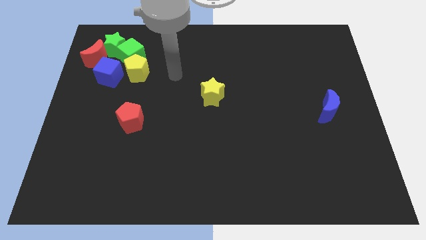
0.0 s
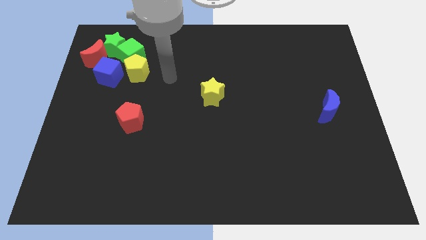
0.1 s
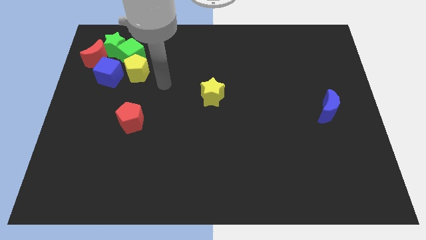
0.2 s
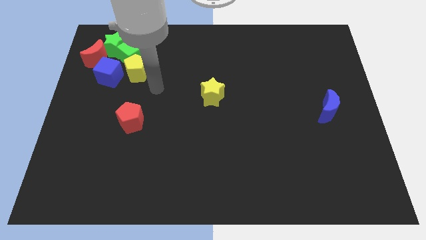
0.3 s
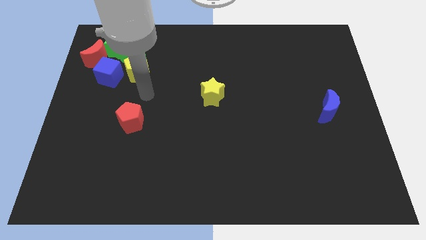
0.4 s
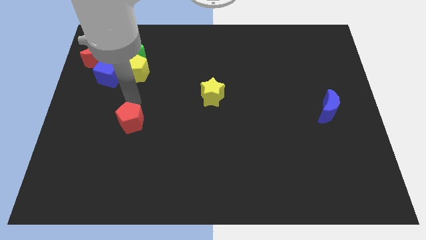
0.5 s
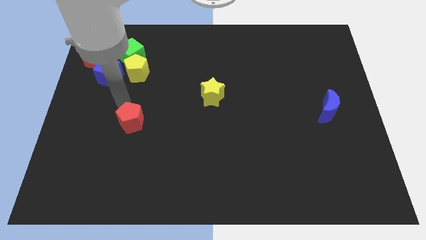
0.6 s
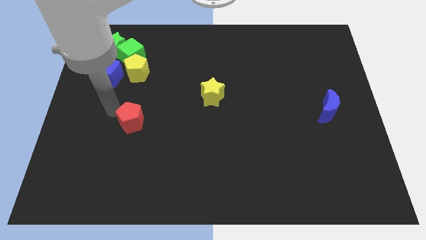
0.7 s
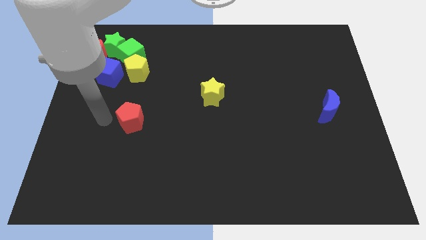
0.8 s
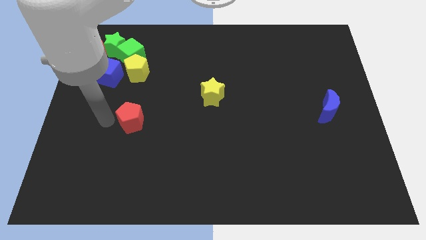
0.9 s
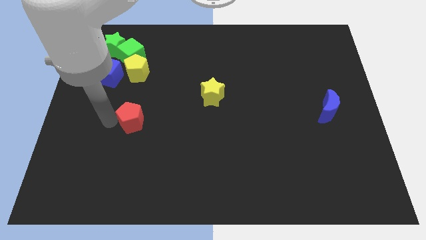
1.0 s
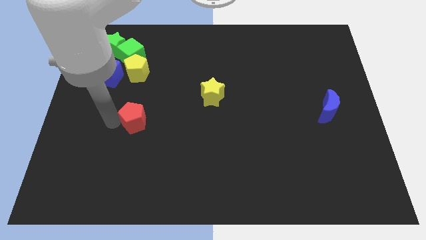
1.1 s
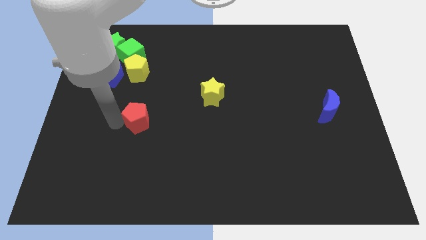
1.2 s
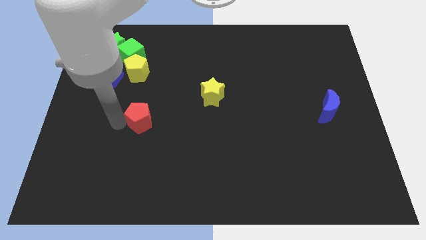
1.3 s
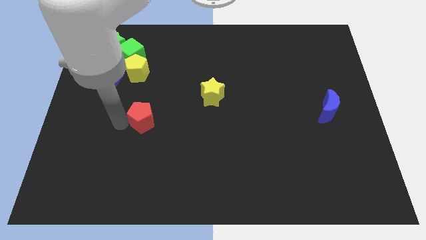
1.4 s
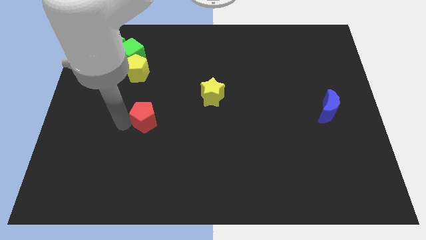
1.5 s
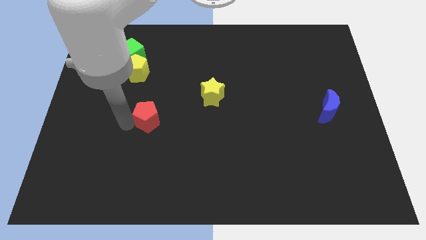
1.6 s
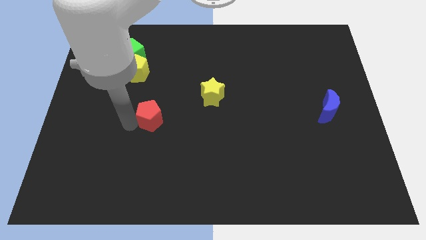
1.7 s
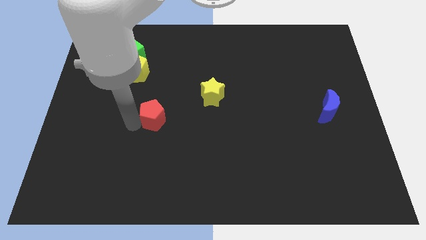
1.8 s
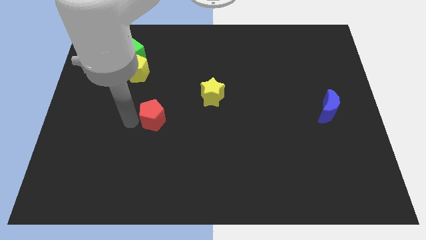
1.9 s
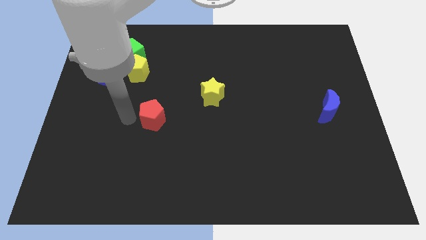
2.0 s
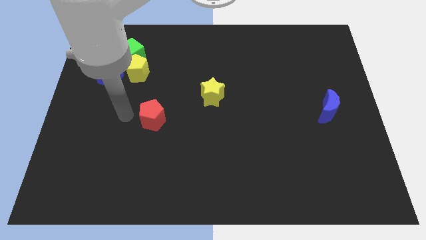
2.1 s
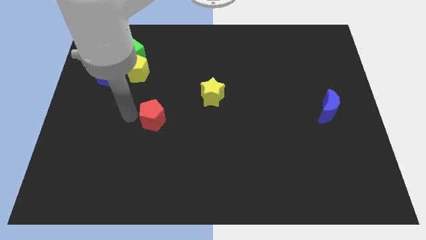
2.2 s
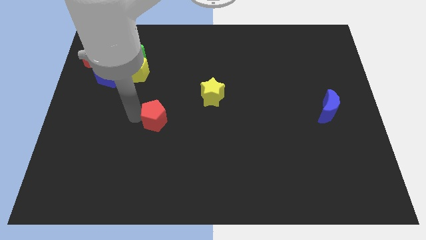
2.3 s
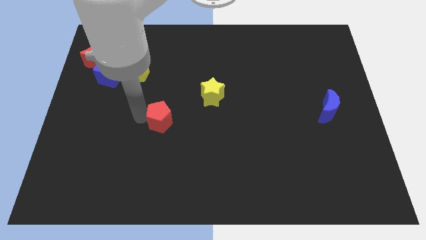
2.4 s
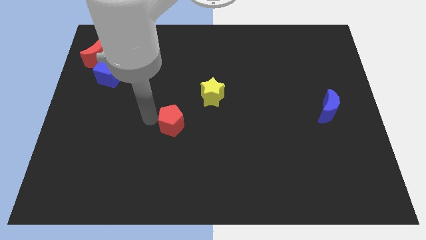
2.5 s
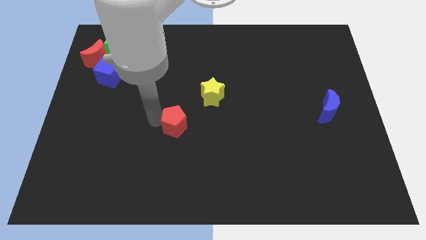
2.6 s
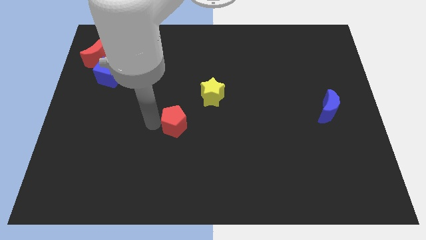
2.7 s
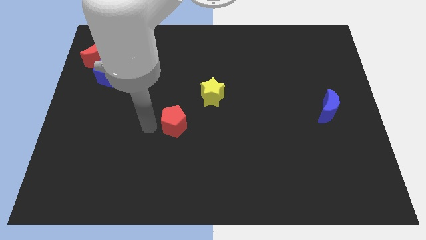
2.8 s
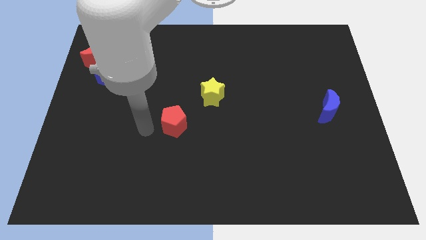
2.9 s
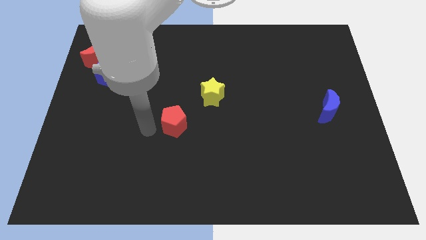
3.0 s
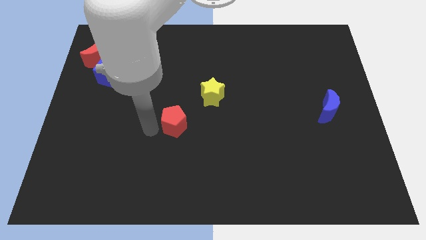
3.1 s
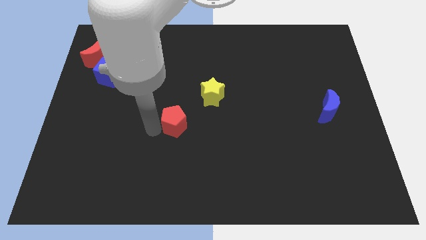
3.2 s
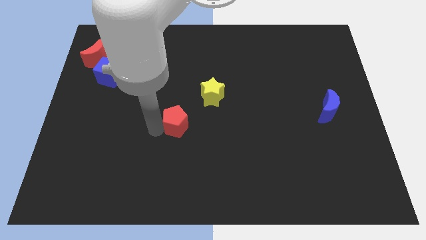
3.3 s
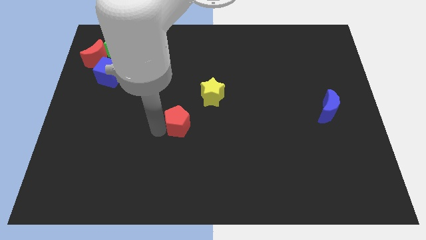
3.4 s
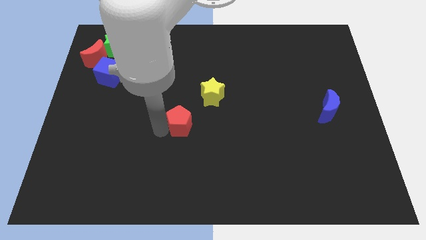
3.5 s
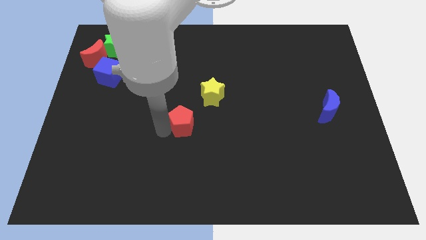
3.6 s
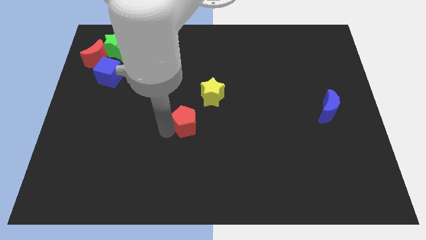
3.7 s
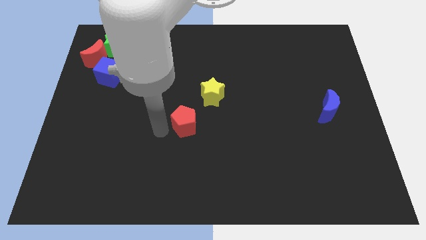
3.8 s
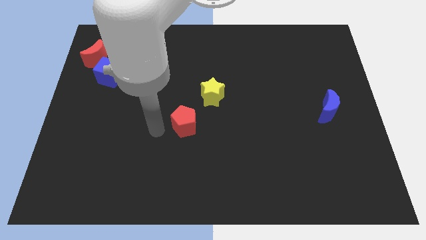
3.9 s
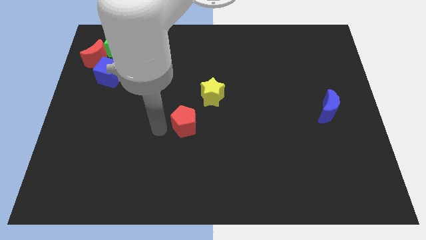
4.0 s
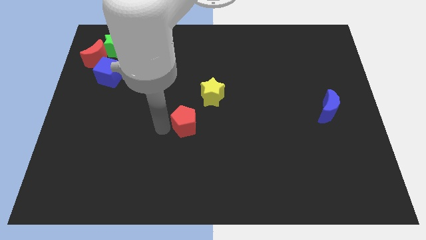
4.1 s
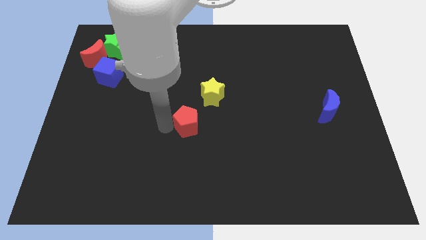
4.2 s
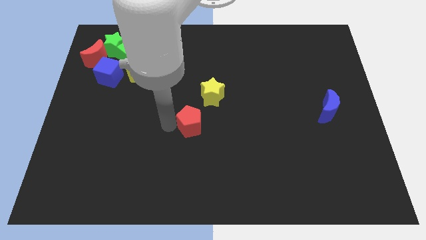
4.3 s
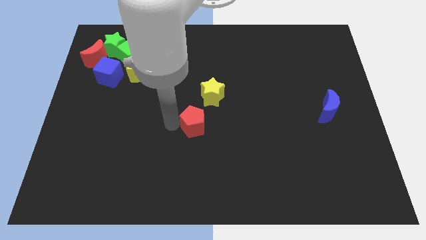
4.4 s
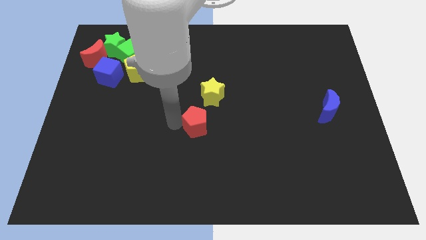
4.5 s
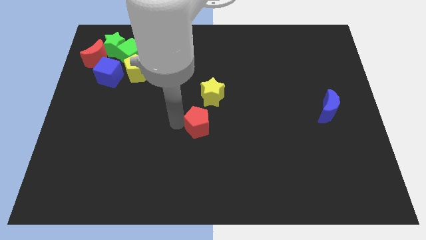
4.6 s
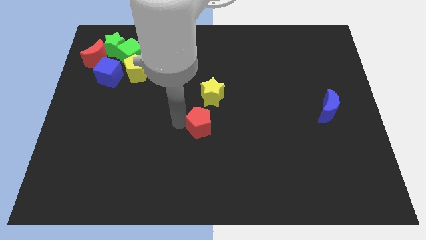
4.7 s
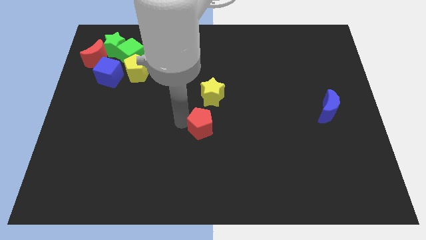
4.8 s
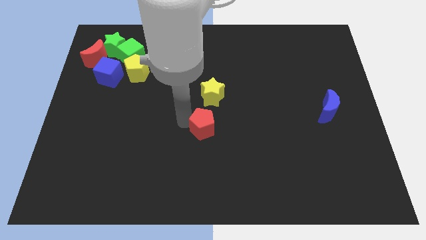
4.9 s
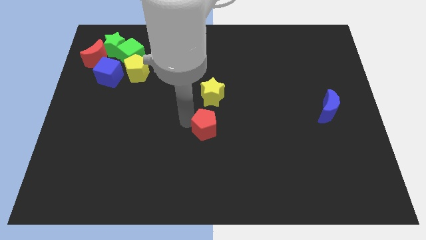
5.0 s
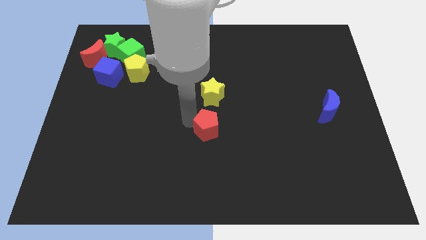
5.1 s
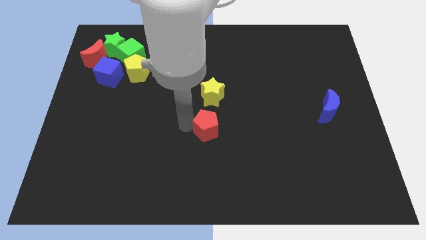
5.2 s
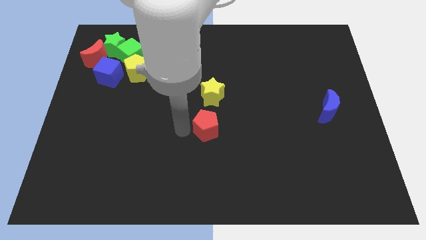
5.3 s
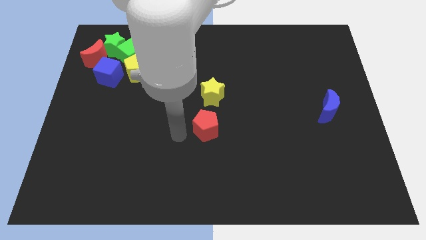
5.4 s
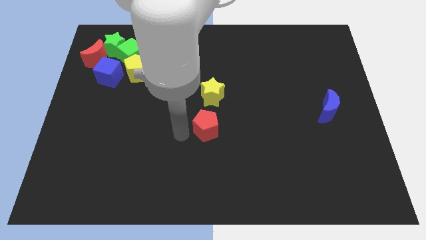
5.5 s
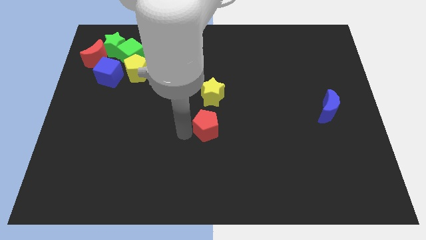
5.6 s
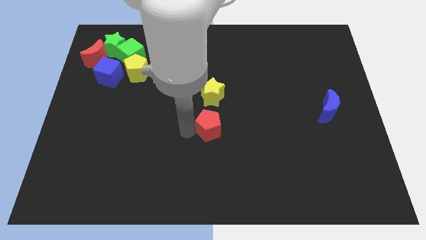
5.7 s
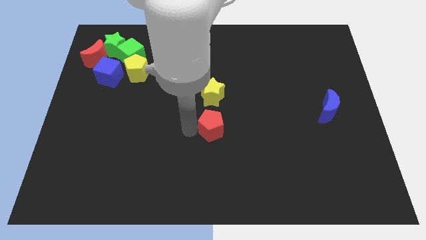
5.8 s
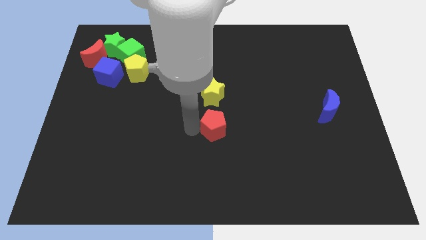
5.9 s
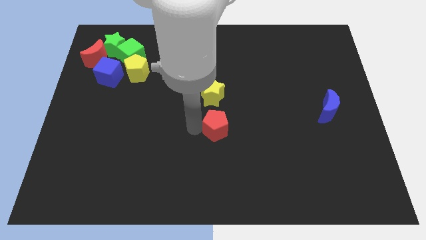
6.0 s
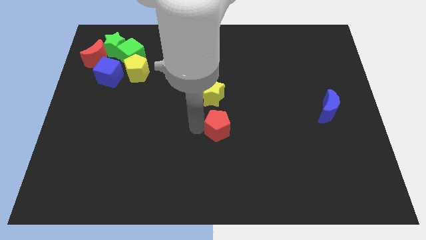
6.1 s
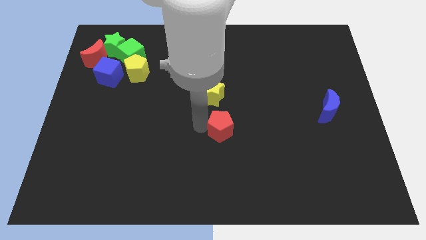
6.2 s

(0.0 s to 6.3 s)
slide the red pentagon right

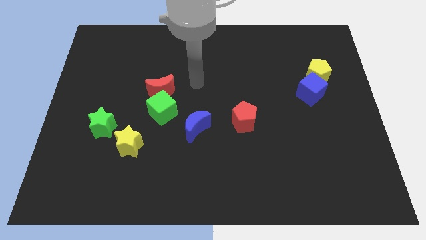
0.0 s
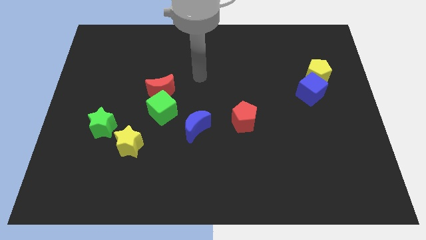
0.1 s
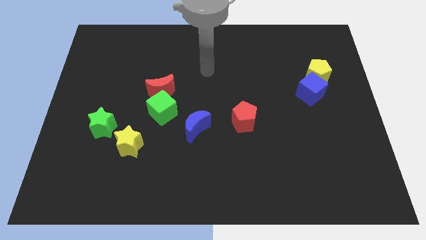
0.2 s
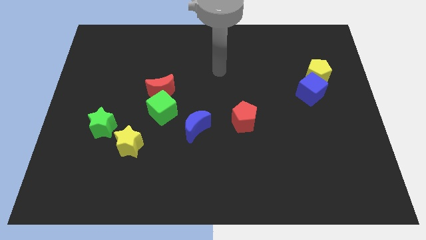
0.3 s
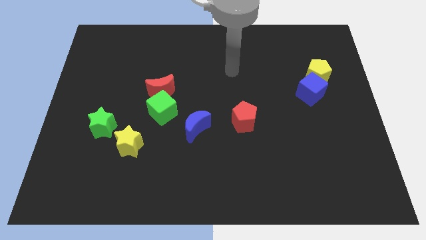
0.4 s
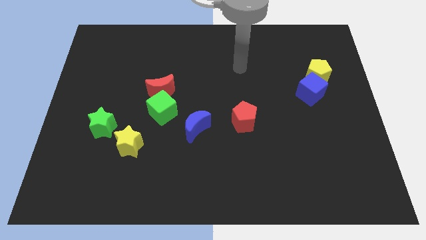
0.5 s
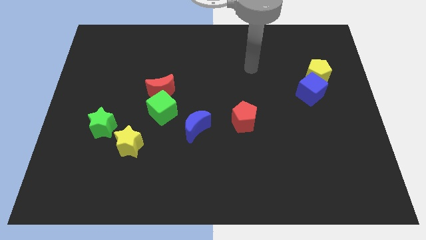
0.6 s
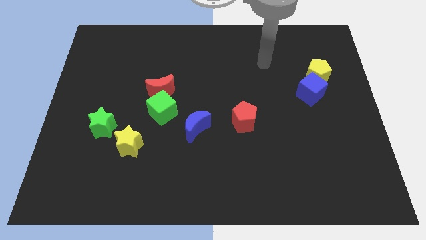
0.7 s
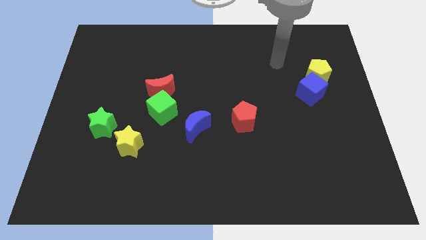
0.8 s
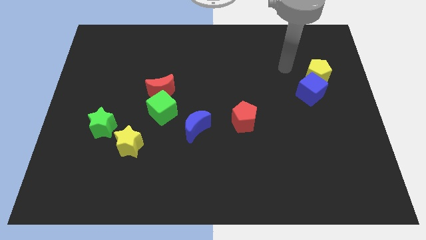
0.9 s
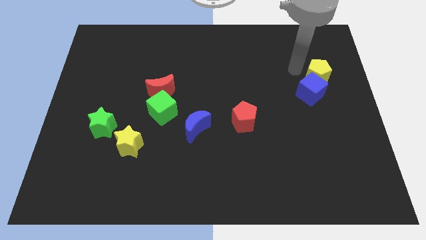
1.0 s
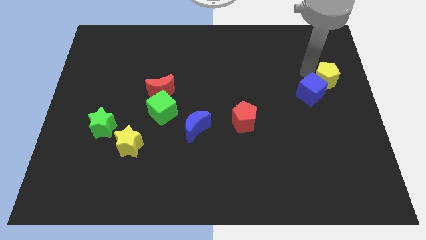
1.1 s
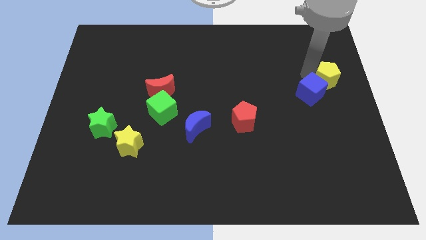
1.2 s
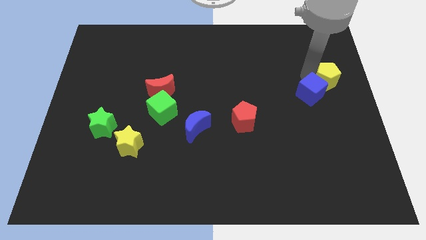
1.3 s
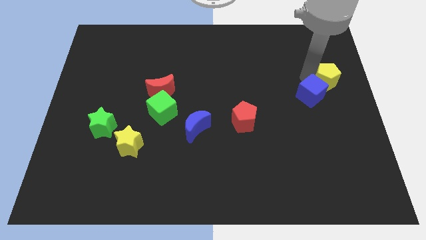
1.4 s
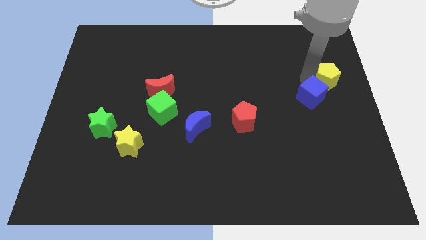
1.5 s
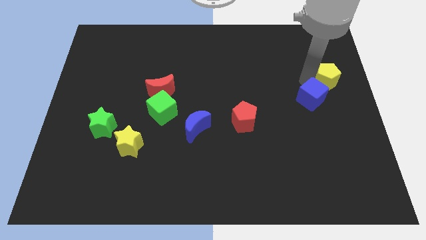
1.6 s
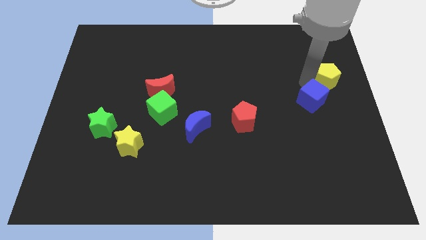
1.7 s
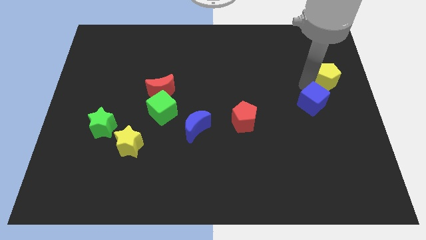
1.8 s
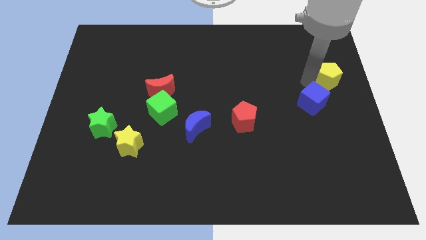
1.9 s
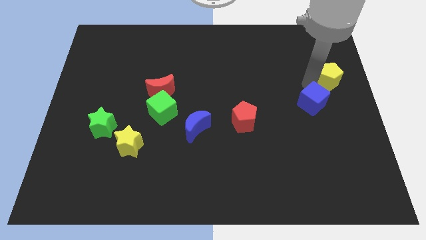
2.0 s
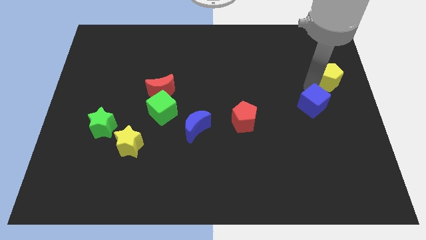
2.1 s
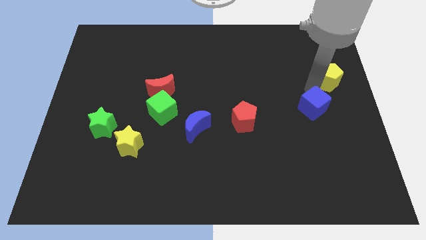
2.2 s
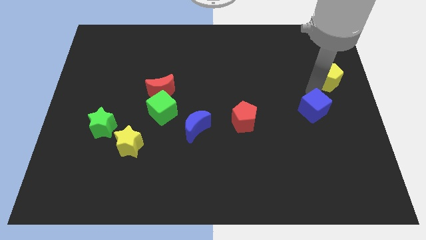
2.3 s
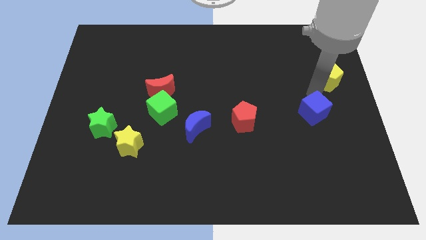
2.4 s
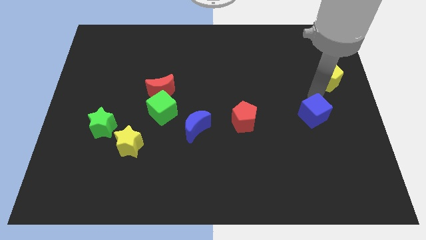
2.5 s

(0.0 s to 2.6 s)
push the blue cube somewhat down
